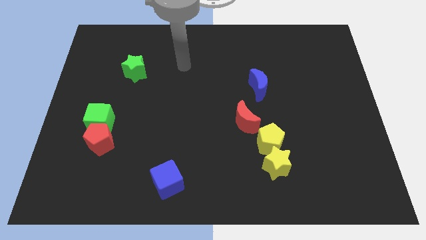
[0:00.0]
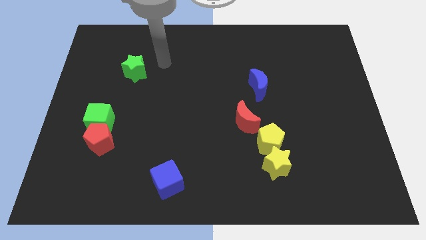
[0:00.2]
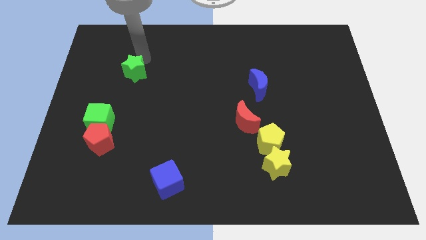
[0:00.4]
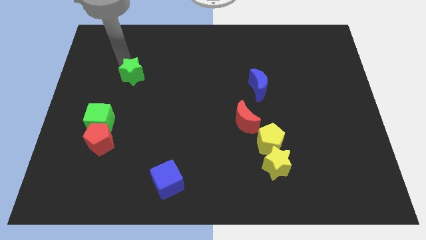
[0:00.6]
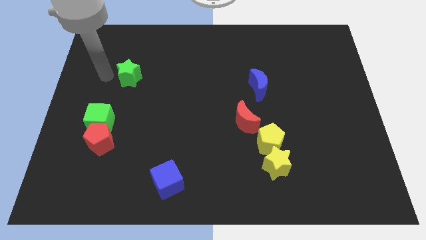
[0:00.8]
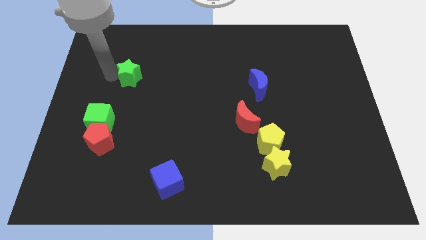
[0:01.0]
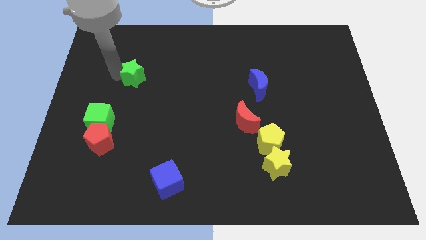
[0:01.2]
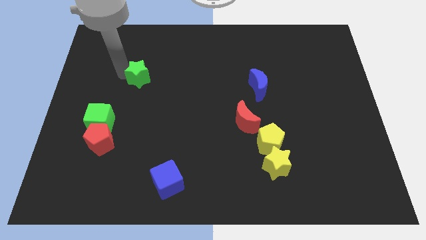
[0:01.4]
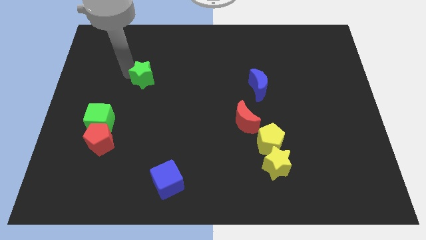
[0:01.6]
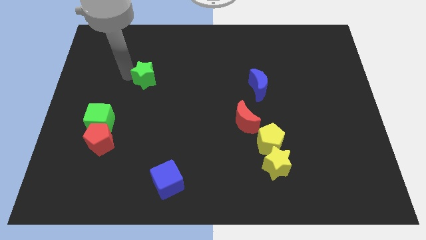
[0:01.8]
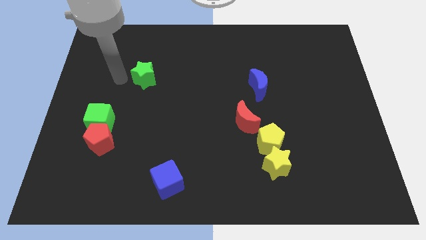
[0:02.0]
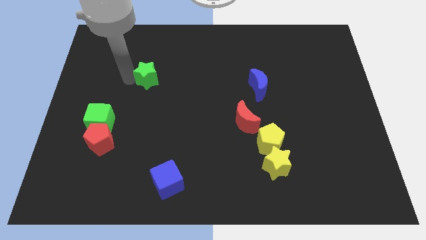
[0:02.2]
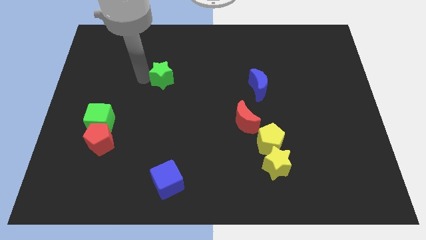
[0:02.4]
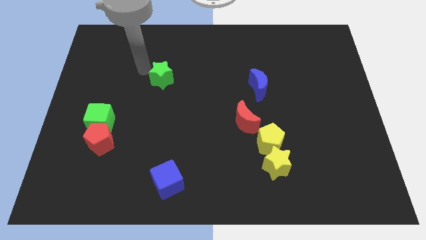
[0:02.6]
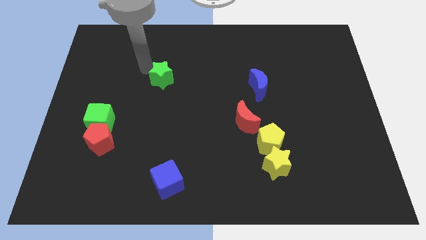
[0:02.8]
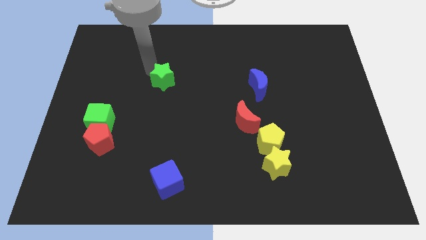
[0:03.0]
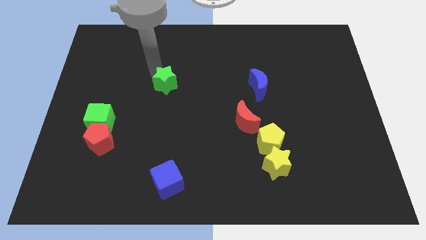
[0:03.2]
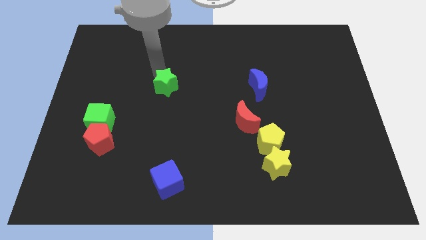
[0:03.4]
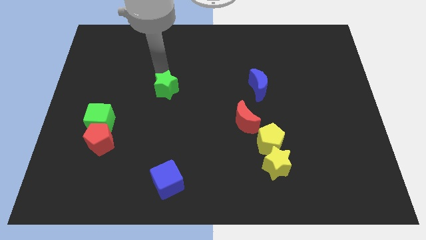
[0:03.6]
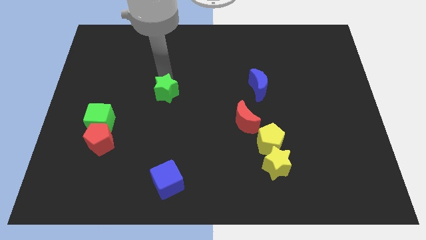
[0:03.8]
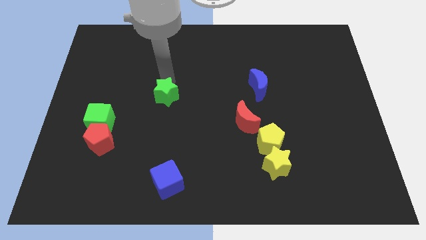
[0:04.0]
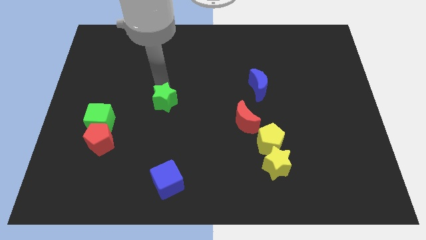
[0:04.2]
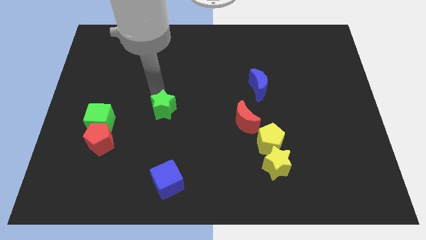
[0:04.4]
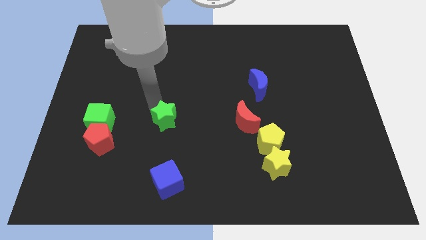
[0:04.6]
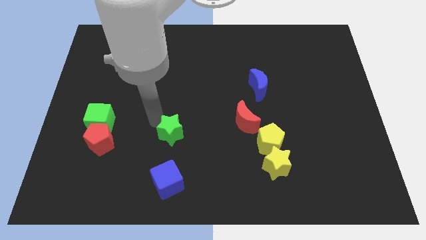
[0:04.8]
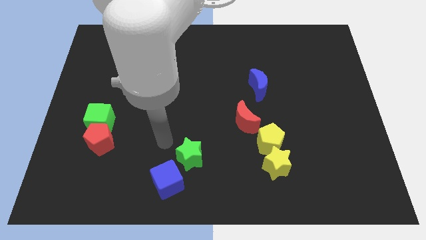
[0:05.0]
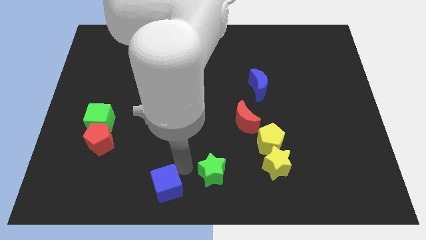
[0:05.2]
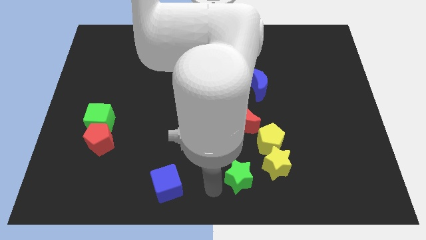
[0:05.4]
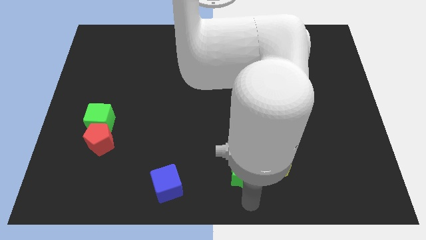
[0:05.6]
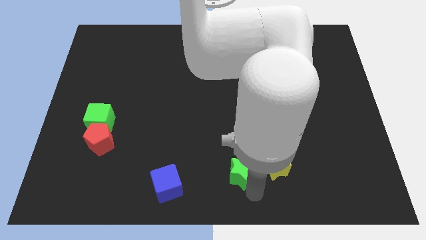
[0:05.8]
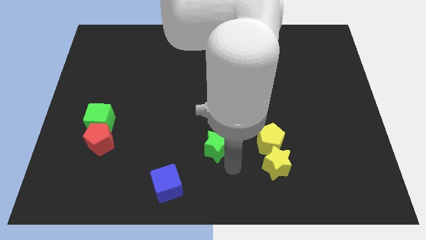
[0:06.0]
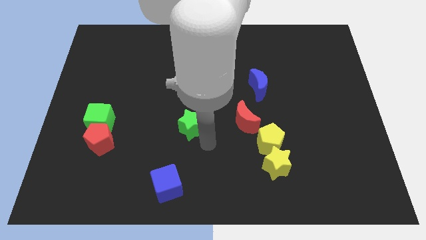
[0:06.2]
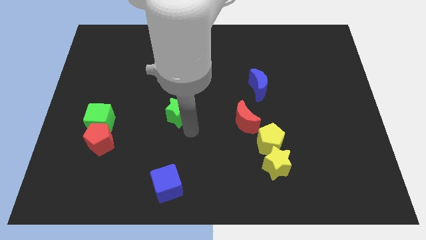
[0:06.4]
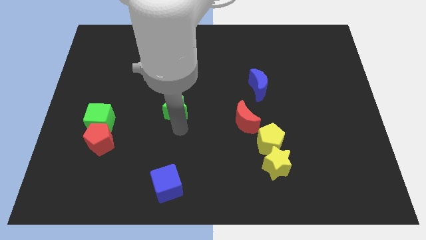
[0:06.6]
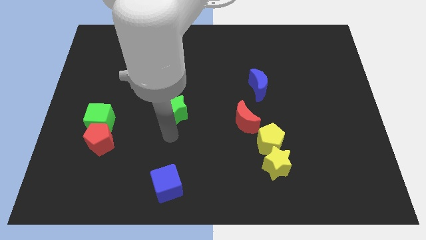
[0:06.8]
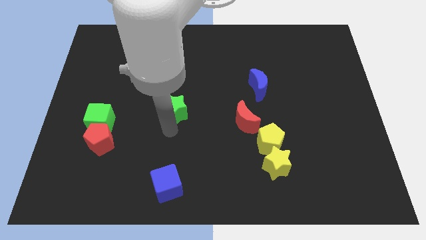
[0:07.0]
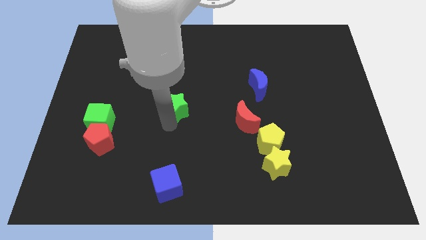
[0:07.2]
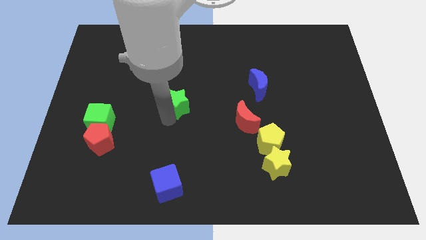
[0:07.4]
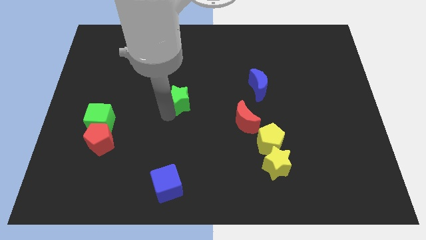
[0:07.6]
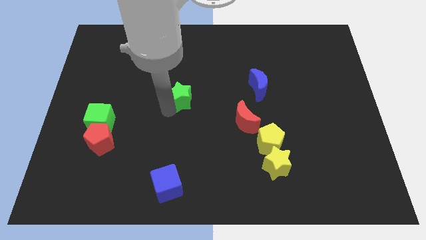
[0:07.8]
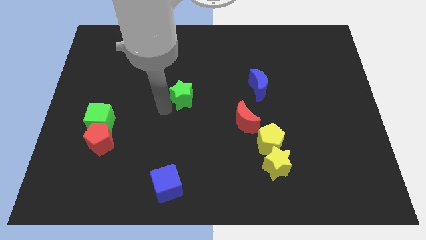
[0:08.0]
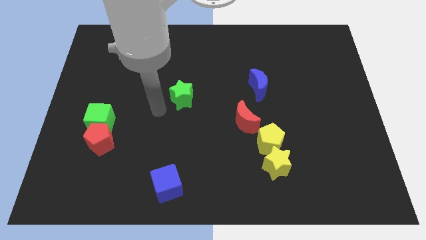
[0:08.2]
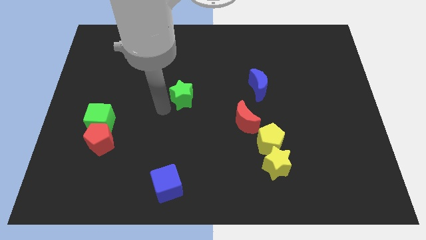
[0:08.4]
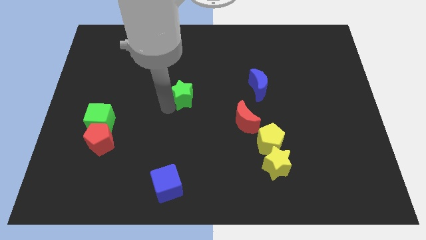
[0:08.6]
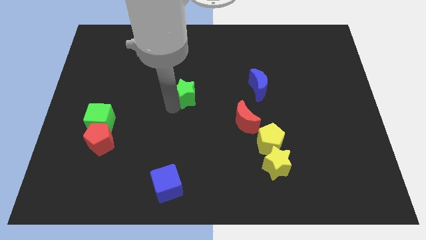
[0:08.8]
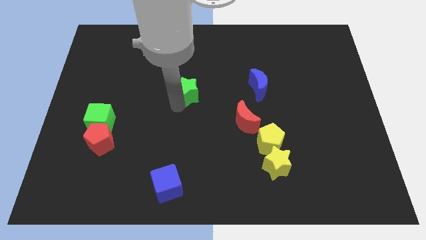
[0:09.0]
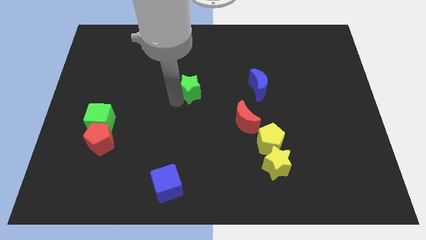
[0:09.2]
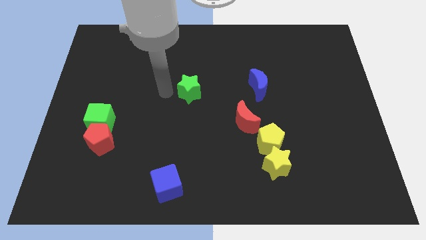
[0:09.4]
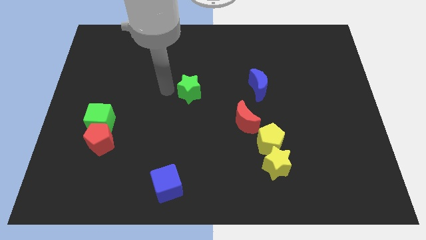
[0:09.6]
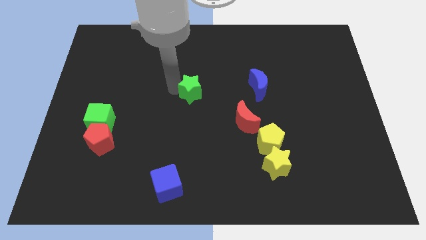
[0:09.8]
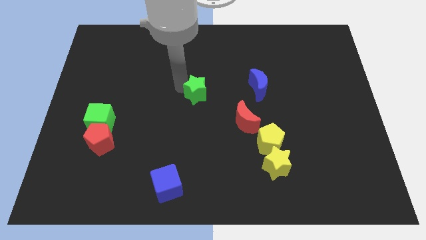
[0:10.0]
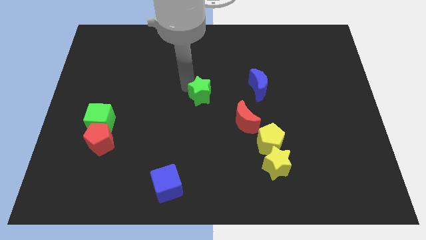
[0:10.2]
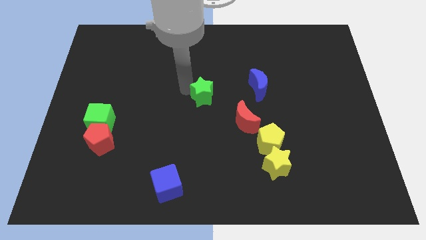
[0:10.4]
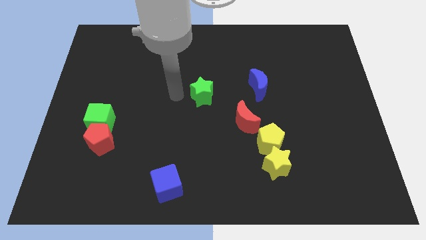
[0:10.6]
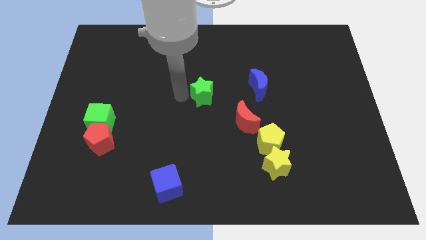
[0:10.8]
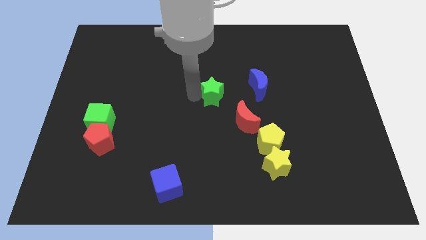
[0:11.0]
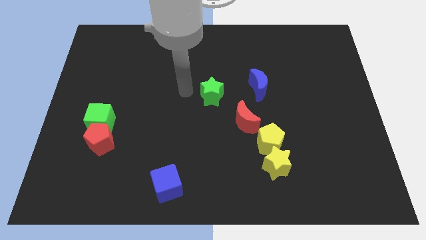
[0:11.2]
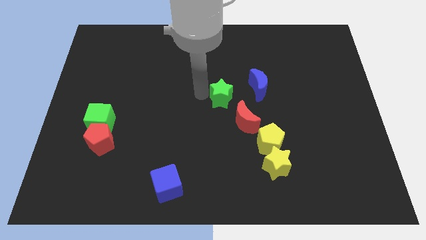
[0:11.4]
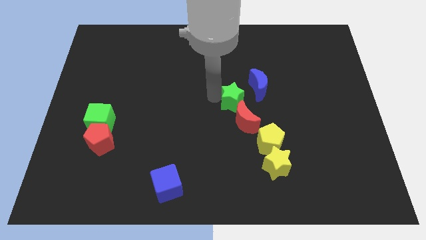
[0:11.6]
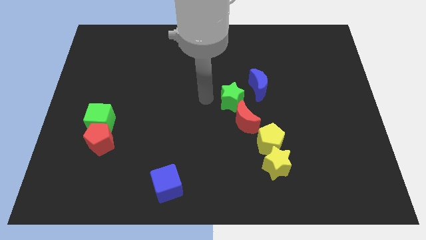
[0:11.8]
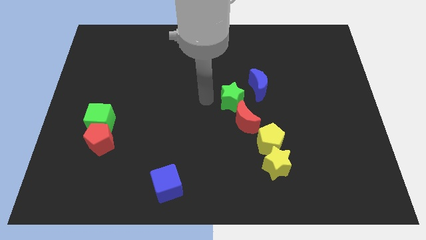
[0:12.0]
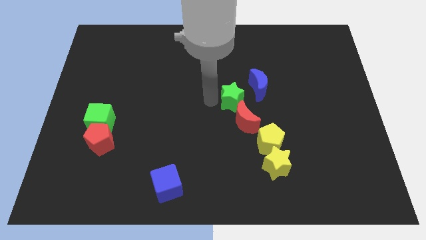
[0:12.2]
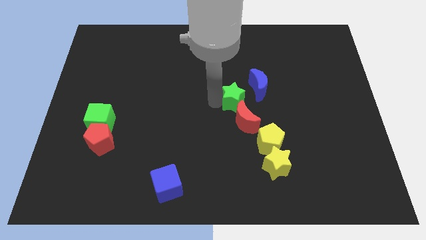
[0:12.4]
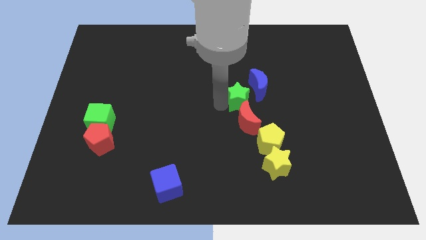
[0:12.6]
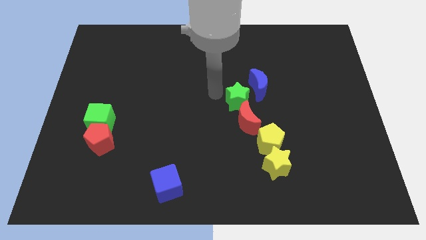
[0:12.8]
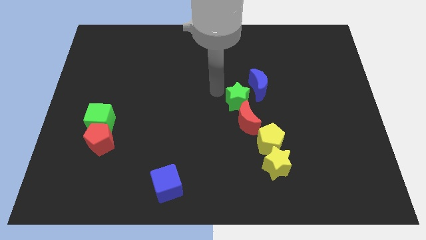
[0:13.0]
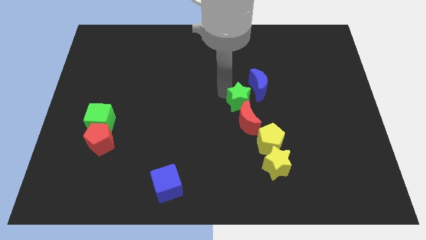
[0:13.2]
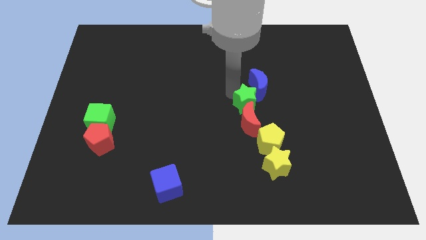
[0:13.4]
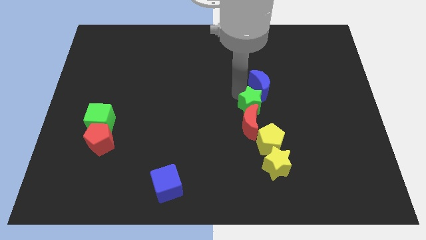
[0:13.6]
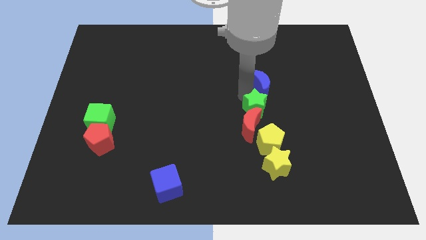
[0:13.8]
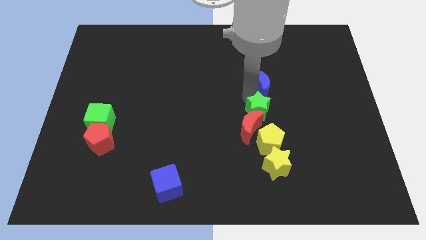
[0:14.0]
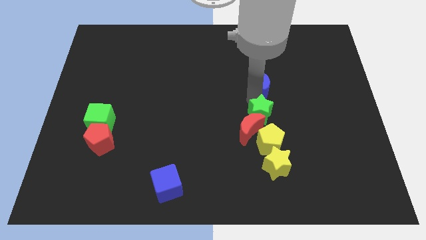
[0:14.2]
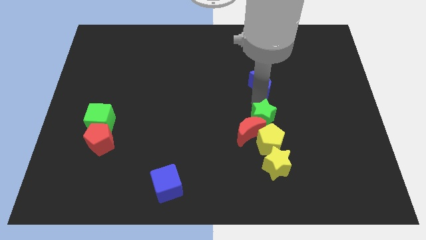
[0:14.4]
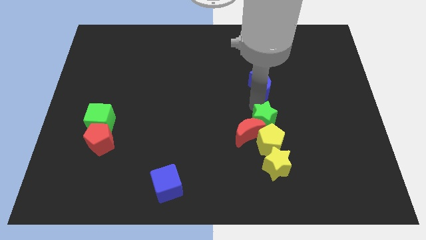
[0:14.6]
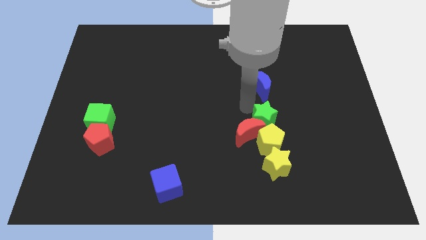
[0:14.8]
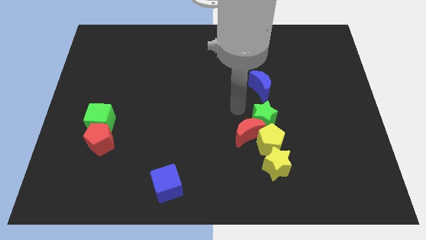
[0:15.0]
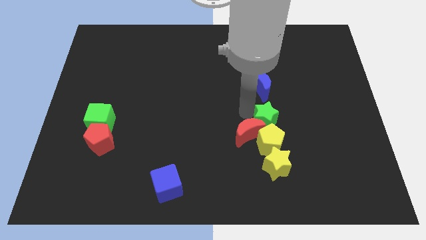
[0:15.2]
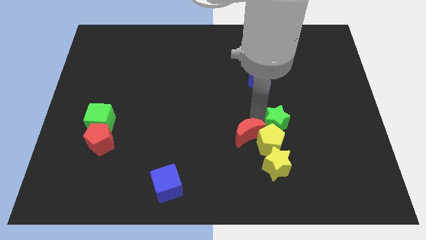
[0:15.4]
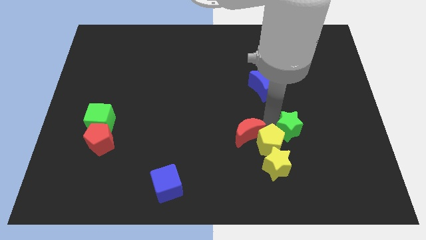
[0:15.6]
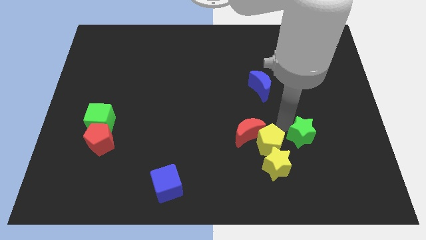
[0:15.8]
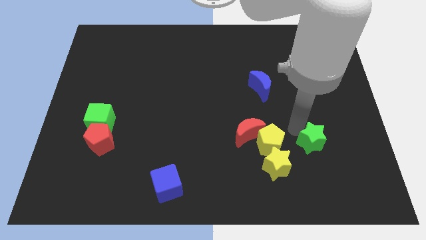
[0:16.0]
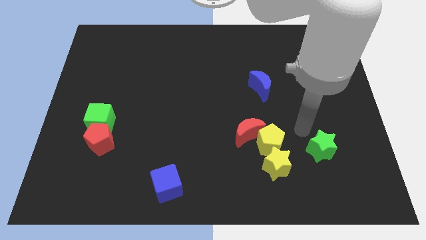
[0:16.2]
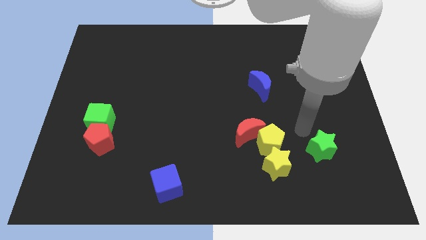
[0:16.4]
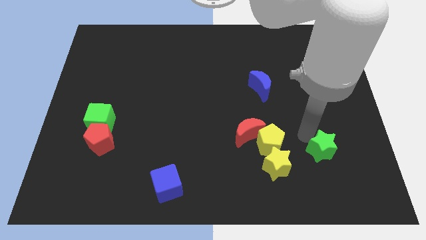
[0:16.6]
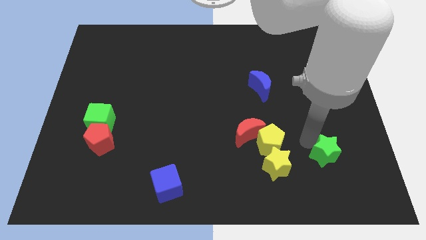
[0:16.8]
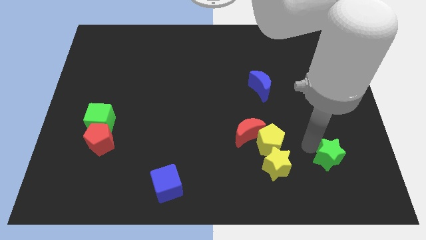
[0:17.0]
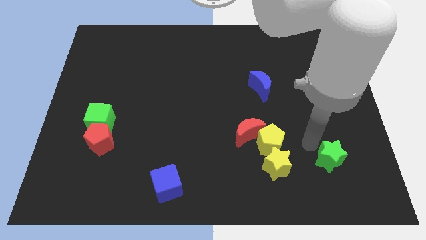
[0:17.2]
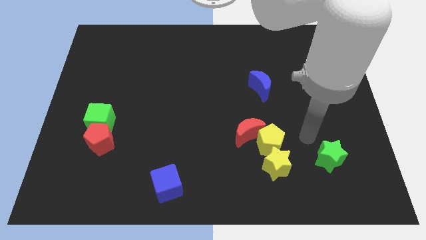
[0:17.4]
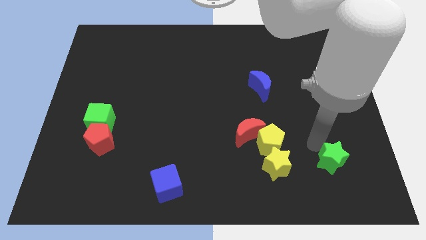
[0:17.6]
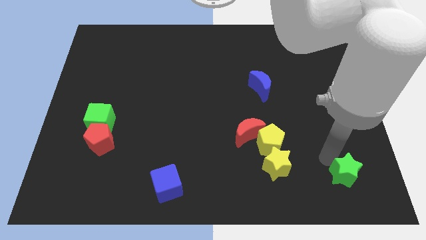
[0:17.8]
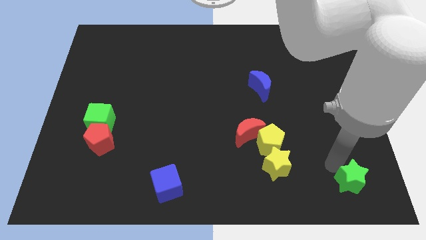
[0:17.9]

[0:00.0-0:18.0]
move the green star to the bottom right
